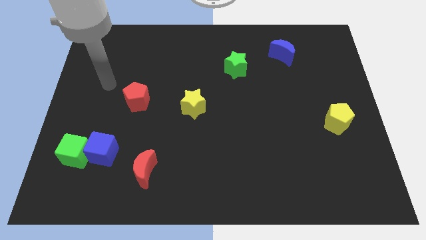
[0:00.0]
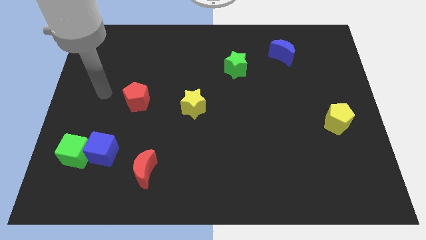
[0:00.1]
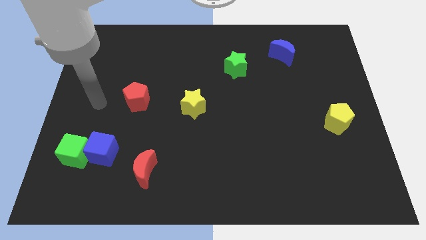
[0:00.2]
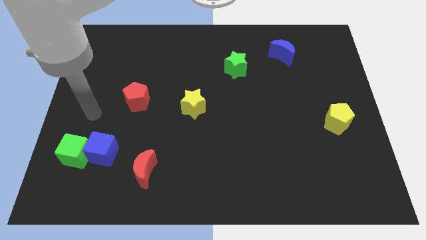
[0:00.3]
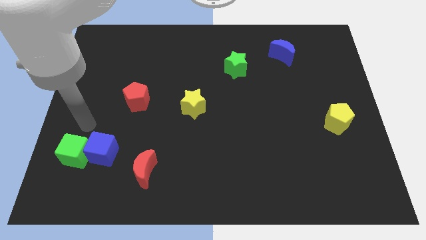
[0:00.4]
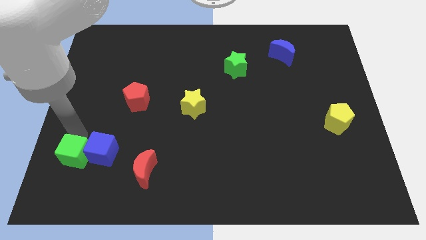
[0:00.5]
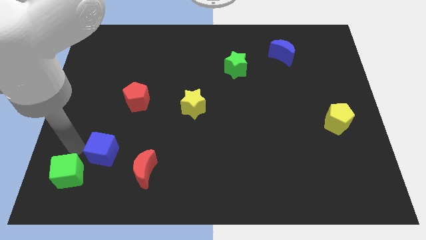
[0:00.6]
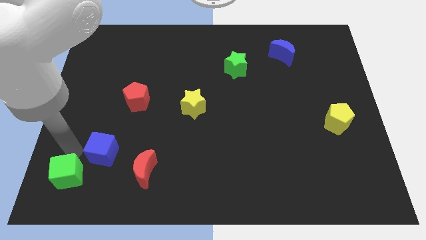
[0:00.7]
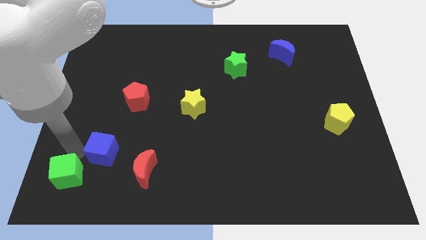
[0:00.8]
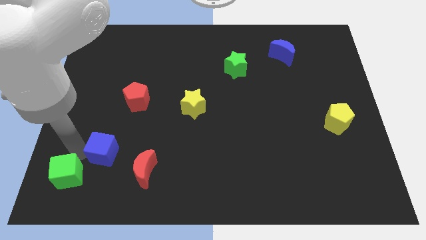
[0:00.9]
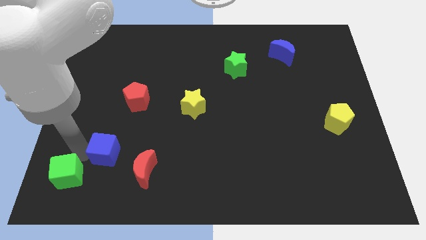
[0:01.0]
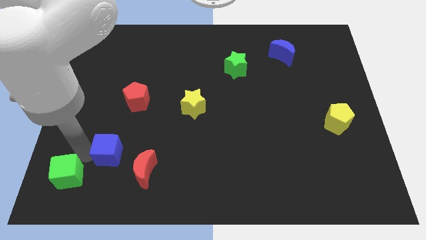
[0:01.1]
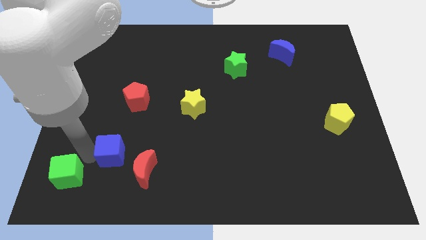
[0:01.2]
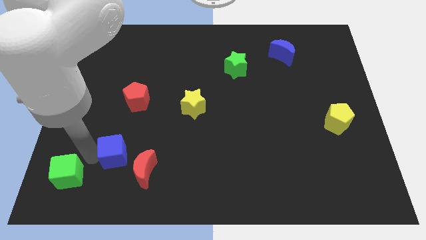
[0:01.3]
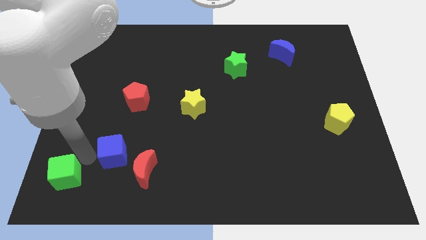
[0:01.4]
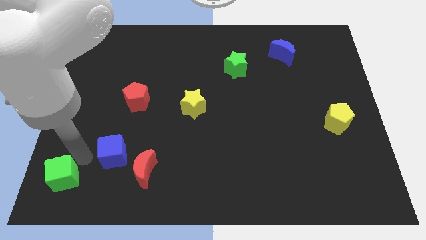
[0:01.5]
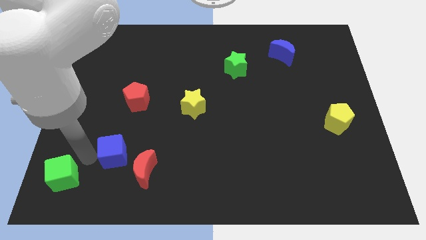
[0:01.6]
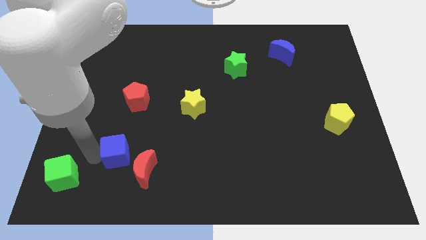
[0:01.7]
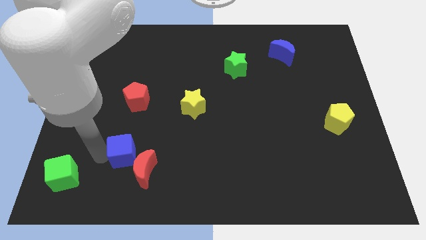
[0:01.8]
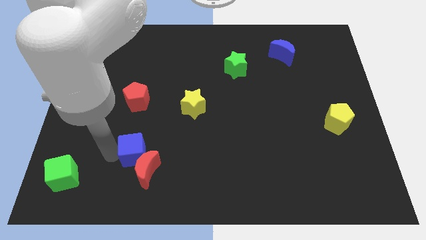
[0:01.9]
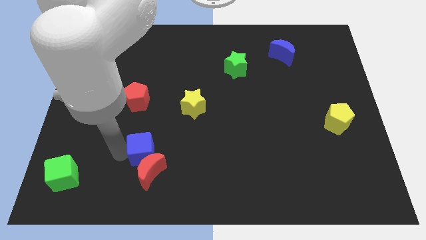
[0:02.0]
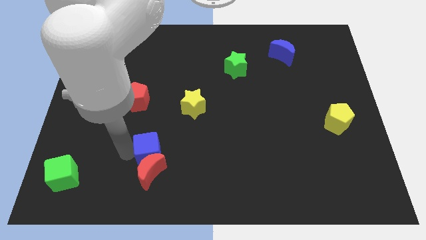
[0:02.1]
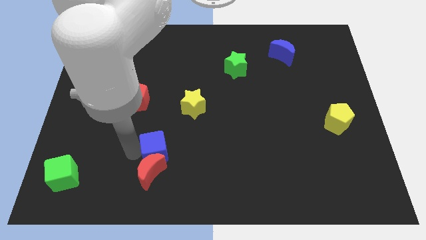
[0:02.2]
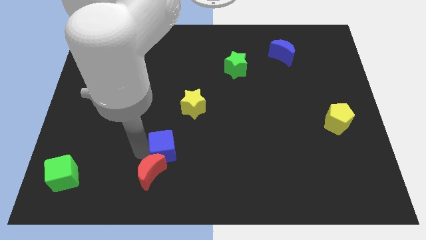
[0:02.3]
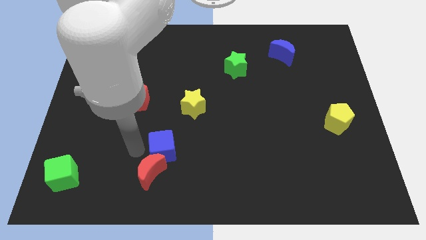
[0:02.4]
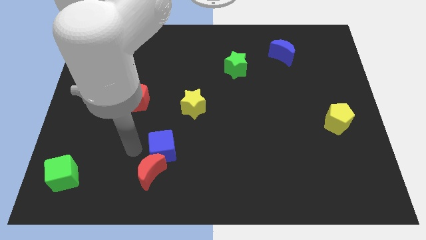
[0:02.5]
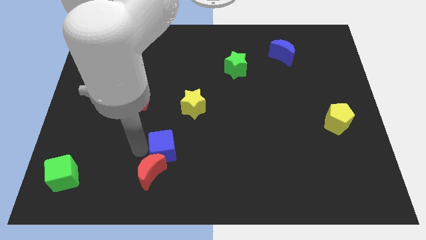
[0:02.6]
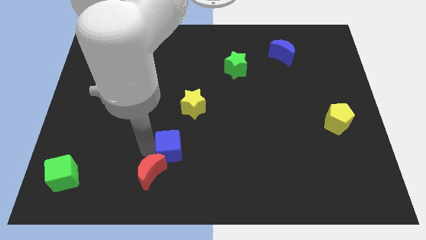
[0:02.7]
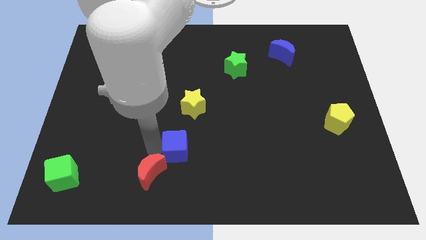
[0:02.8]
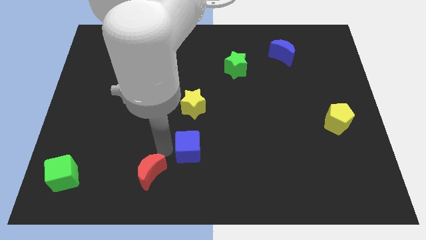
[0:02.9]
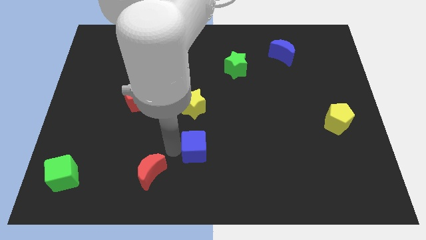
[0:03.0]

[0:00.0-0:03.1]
move the blue cube right

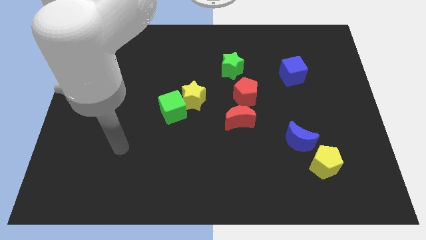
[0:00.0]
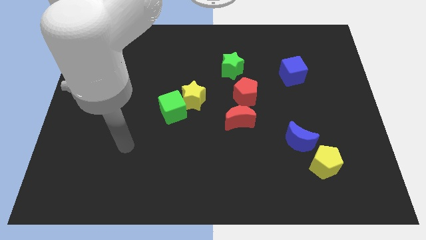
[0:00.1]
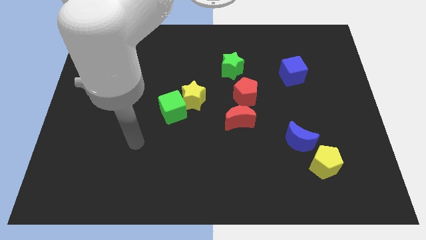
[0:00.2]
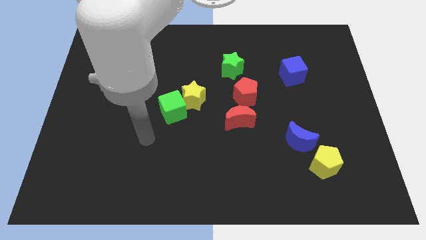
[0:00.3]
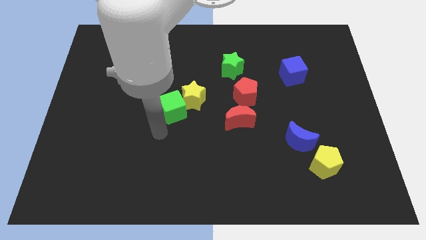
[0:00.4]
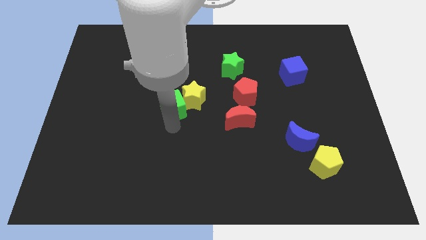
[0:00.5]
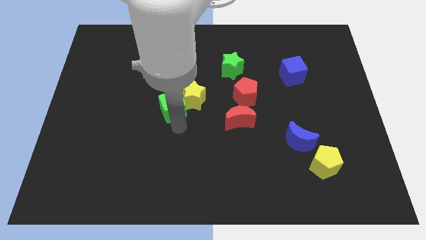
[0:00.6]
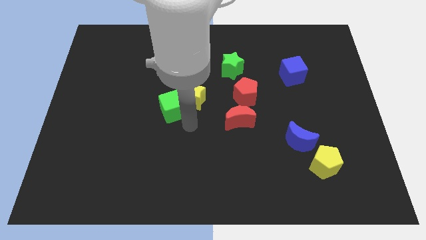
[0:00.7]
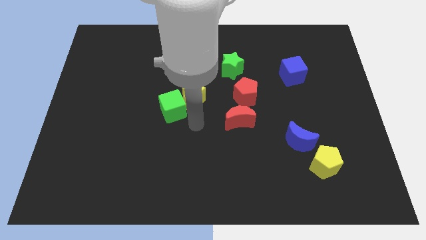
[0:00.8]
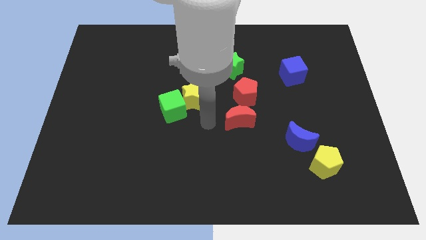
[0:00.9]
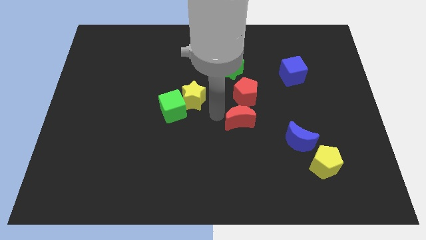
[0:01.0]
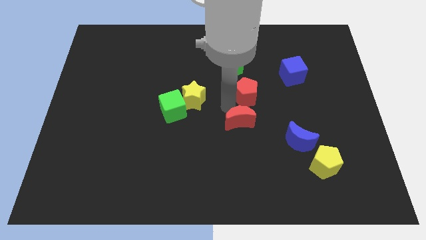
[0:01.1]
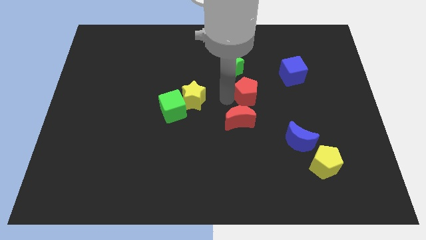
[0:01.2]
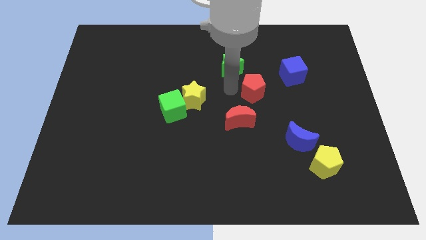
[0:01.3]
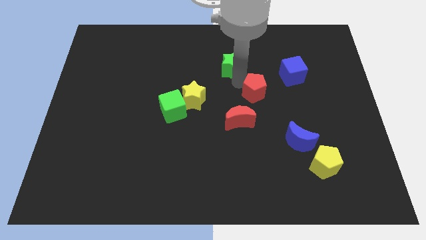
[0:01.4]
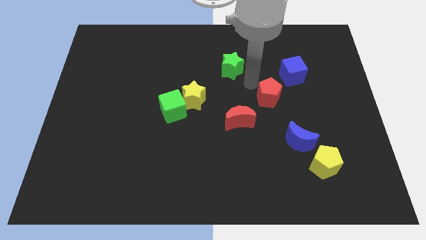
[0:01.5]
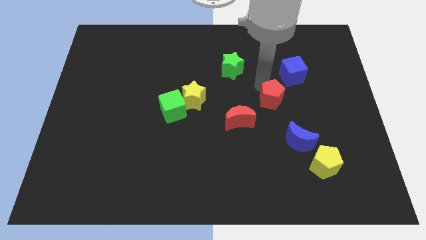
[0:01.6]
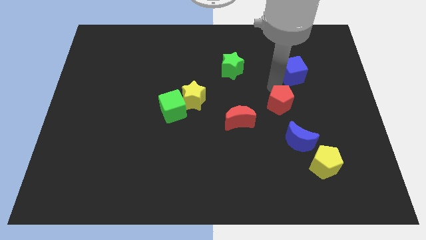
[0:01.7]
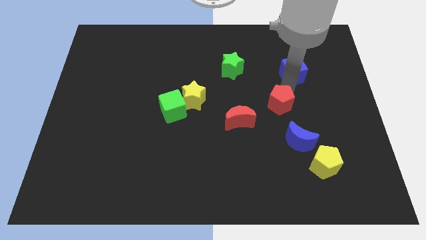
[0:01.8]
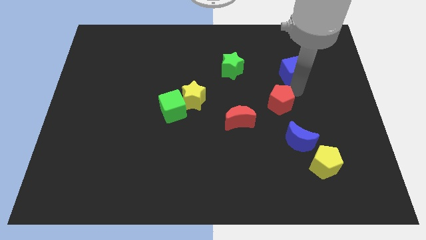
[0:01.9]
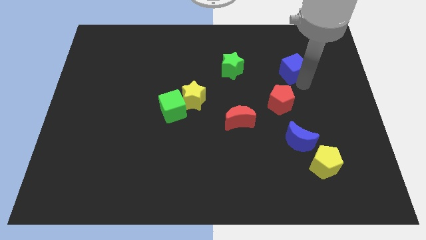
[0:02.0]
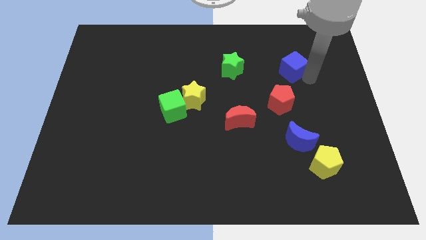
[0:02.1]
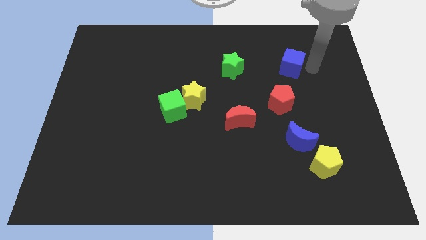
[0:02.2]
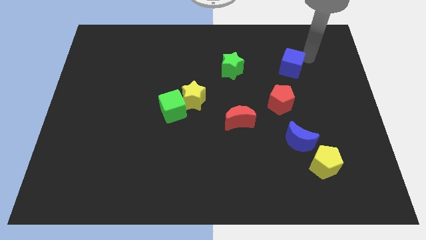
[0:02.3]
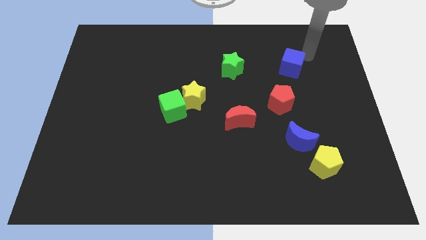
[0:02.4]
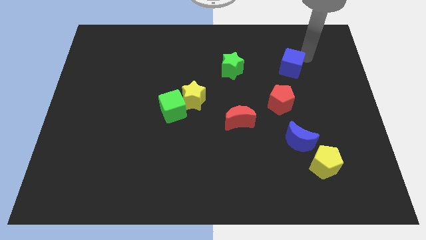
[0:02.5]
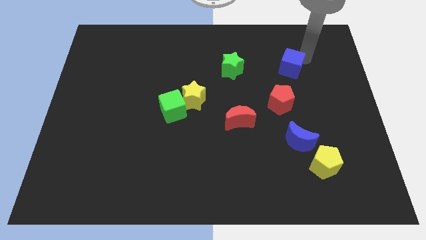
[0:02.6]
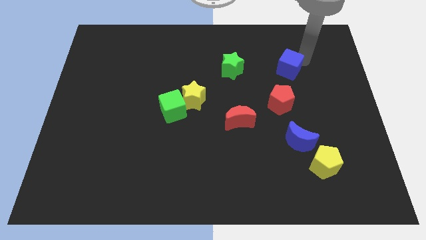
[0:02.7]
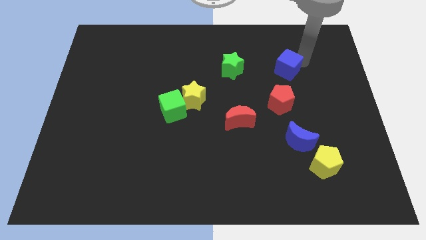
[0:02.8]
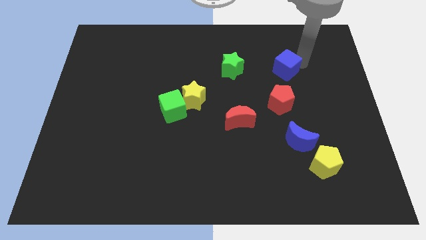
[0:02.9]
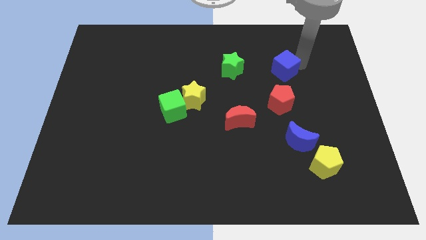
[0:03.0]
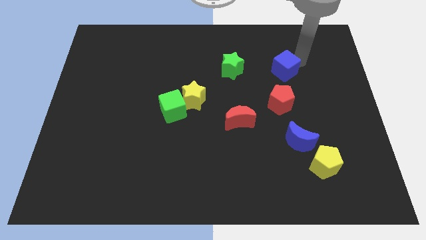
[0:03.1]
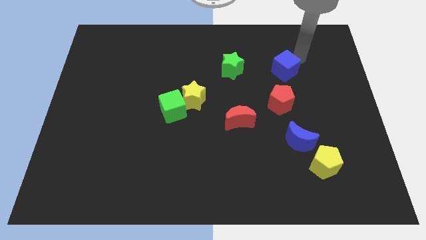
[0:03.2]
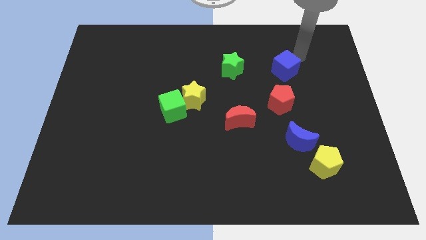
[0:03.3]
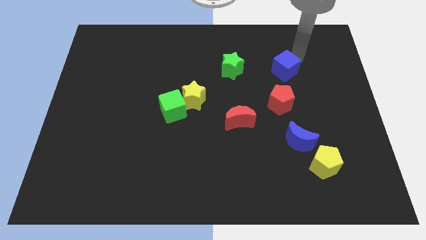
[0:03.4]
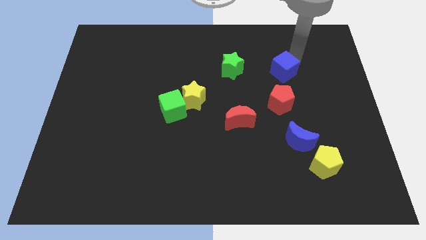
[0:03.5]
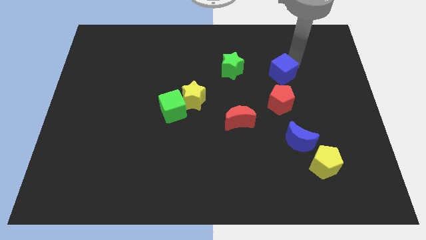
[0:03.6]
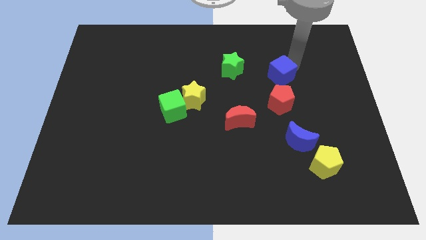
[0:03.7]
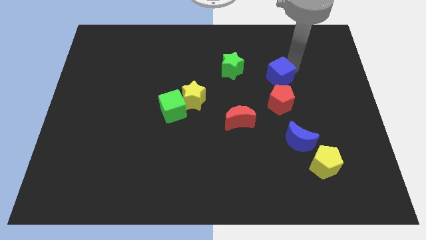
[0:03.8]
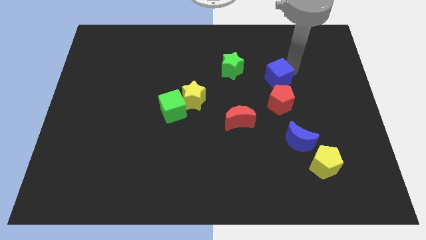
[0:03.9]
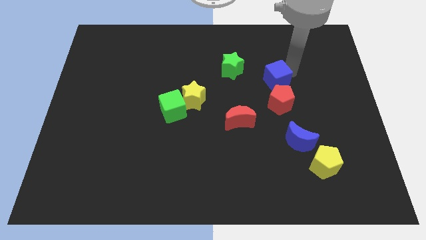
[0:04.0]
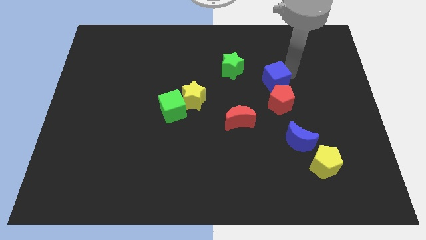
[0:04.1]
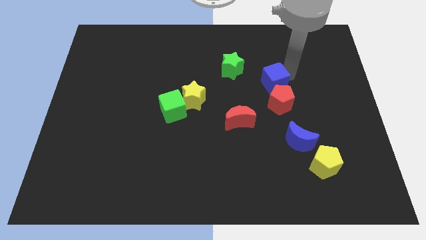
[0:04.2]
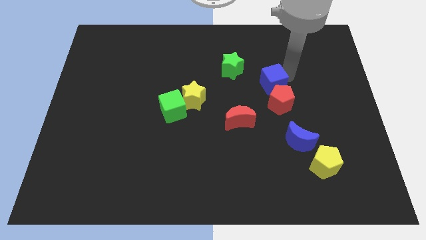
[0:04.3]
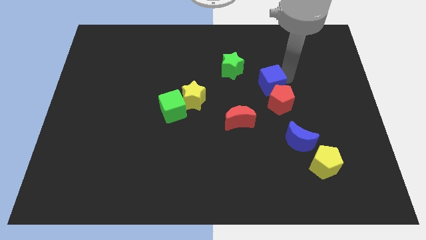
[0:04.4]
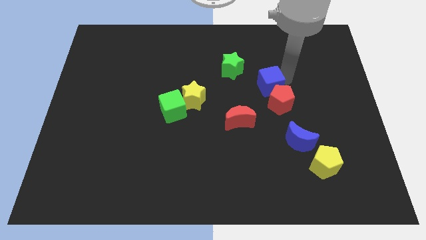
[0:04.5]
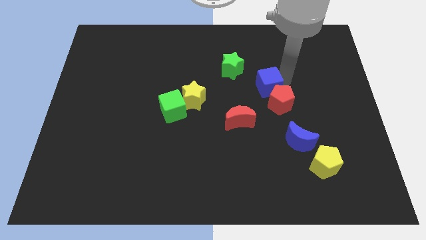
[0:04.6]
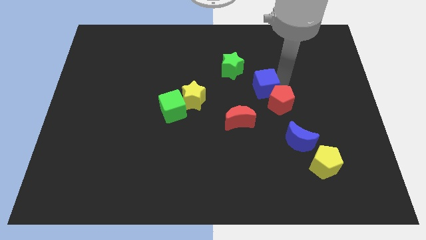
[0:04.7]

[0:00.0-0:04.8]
slightly push the blue cube to the left

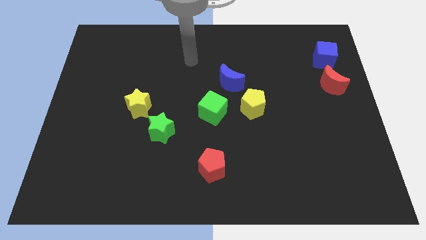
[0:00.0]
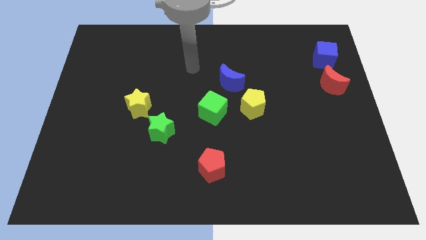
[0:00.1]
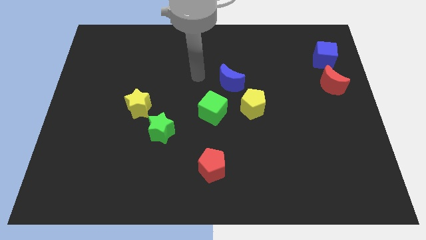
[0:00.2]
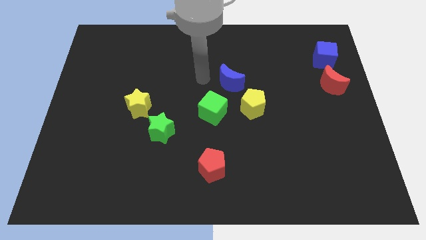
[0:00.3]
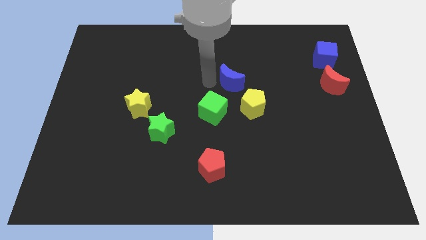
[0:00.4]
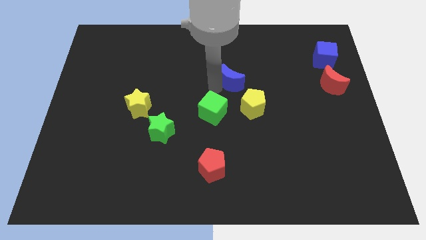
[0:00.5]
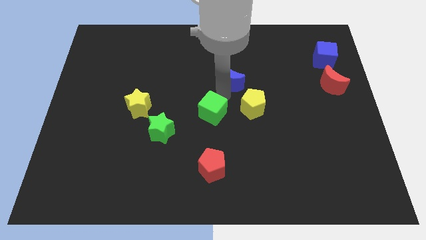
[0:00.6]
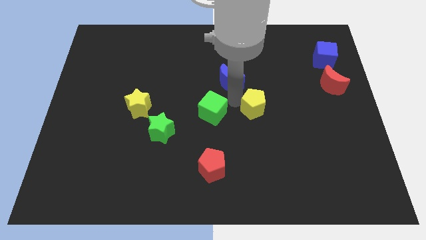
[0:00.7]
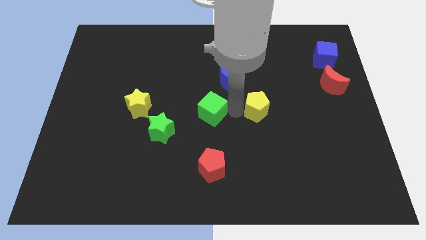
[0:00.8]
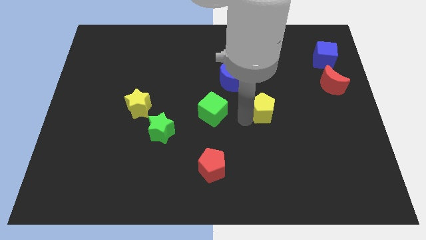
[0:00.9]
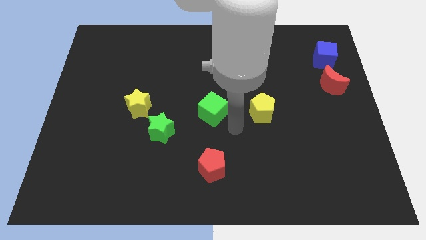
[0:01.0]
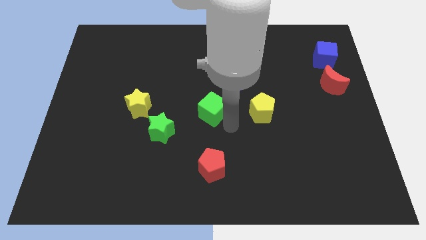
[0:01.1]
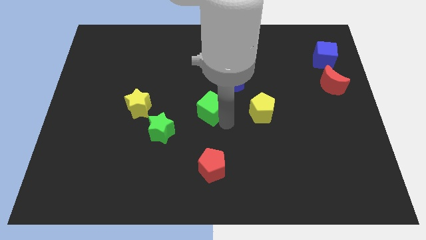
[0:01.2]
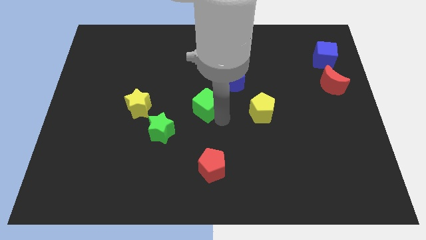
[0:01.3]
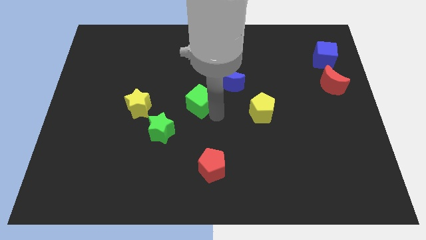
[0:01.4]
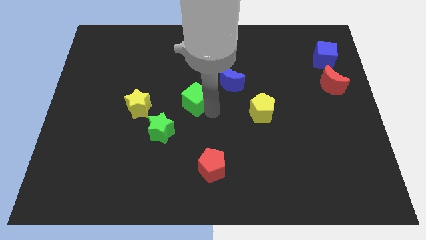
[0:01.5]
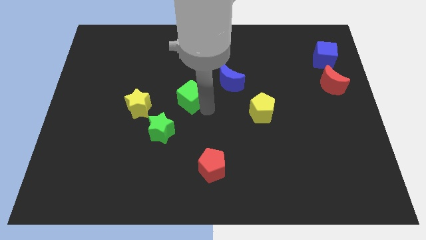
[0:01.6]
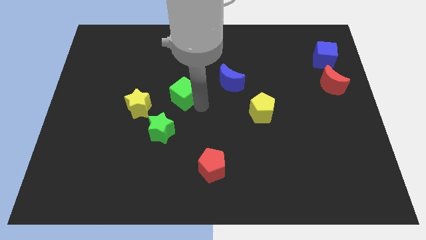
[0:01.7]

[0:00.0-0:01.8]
slide the green cube up and then to the left a bit
